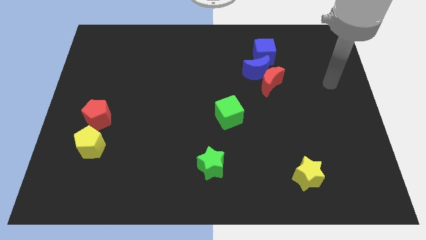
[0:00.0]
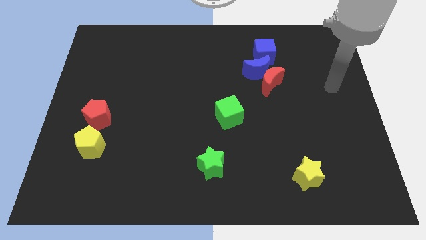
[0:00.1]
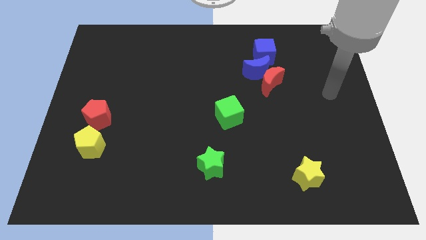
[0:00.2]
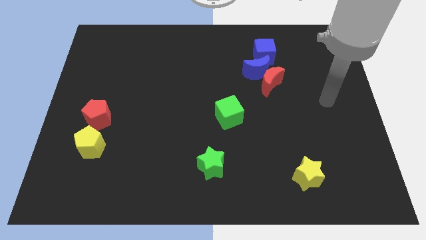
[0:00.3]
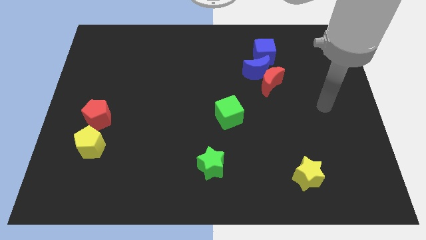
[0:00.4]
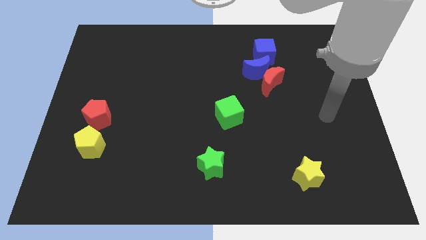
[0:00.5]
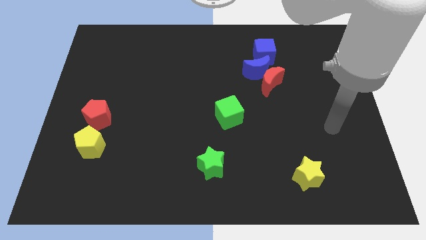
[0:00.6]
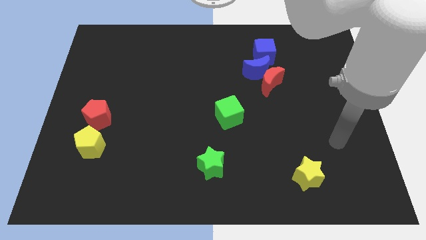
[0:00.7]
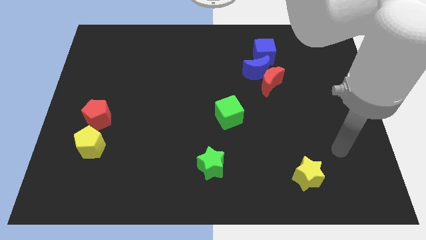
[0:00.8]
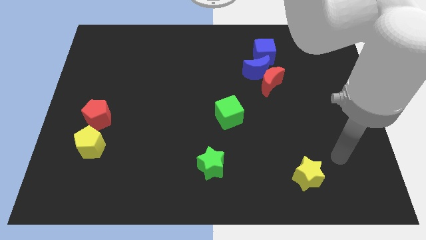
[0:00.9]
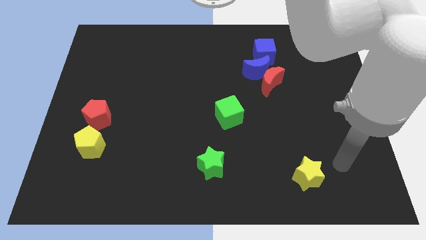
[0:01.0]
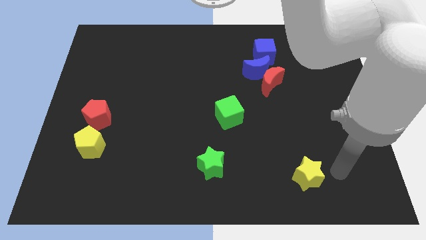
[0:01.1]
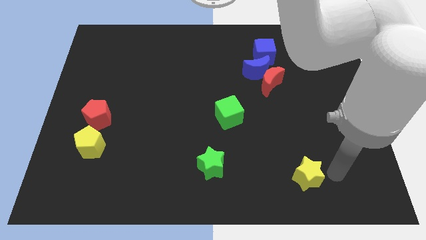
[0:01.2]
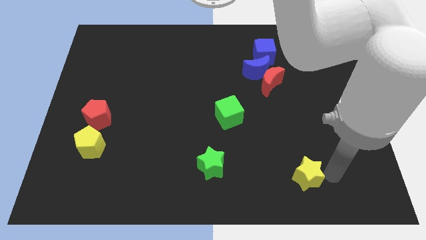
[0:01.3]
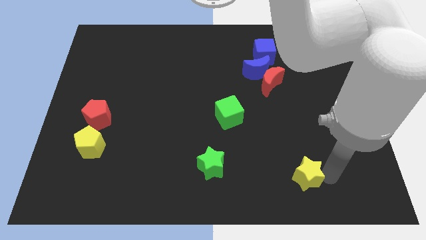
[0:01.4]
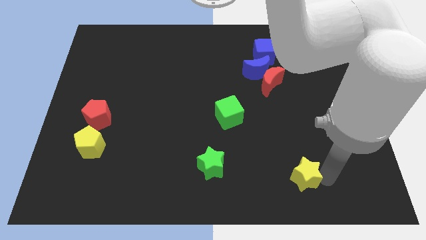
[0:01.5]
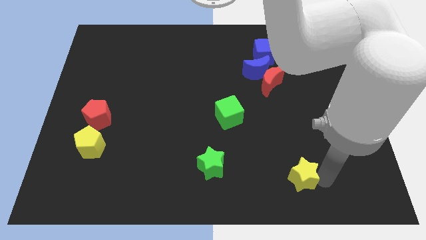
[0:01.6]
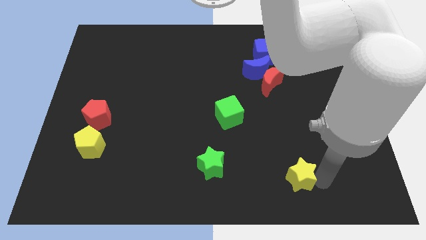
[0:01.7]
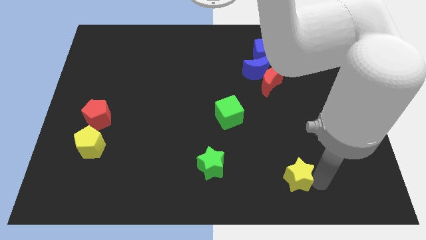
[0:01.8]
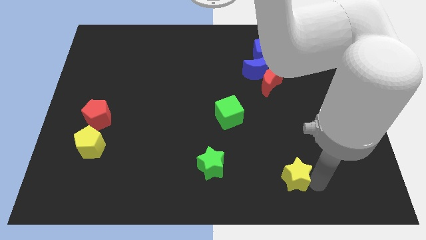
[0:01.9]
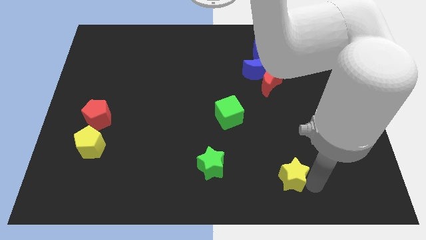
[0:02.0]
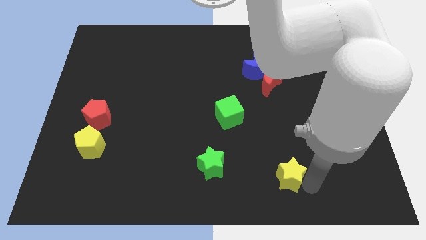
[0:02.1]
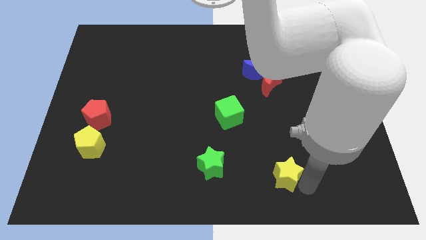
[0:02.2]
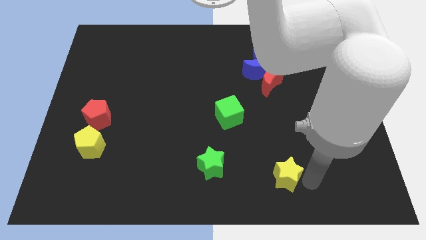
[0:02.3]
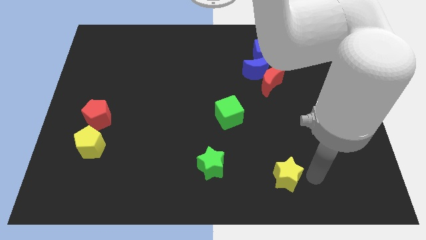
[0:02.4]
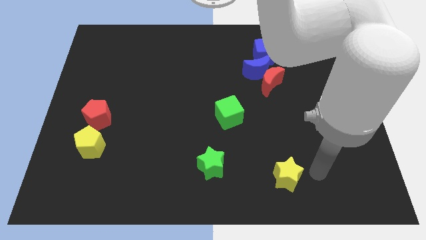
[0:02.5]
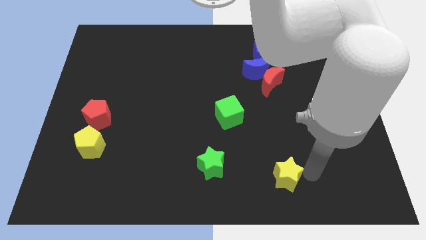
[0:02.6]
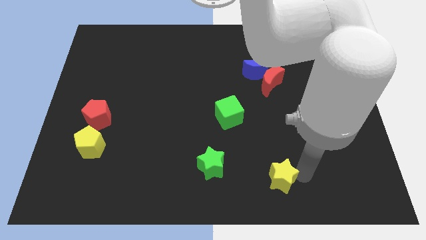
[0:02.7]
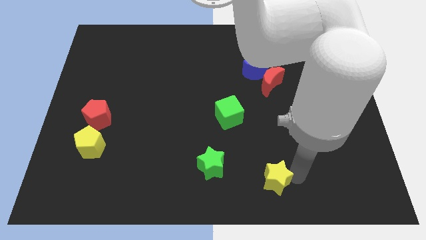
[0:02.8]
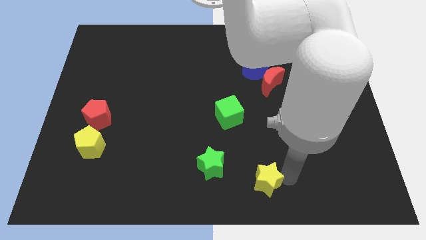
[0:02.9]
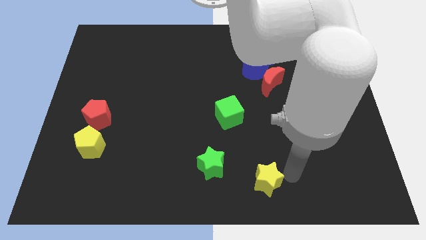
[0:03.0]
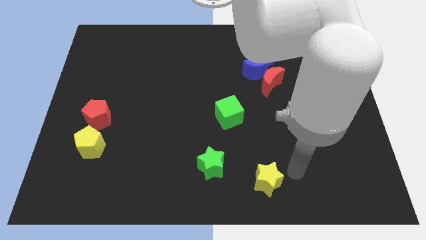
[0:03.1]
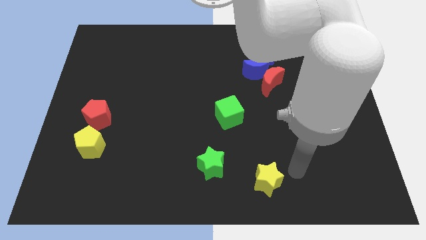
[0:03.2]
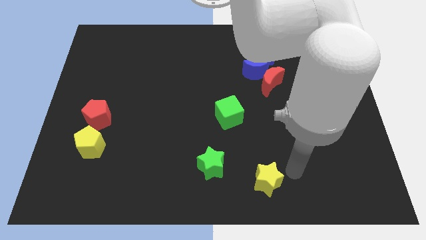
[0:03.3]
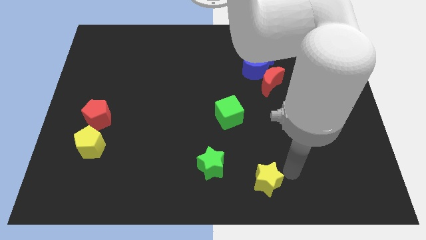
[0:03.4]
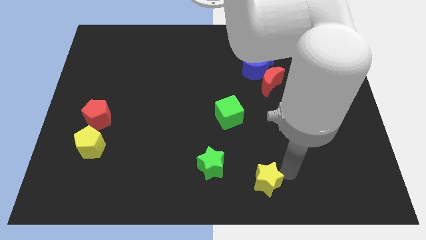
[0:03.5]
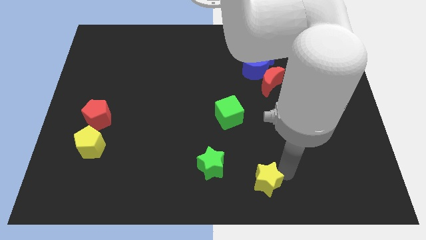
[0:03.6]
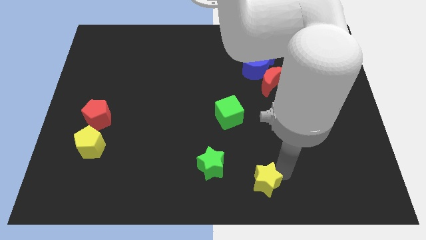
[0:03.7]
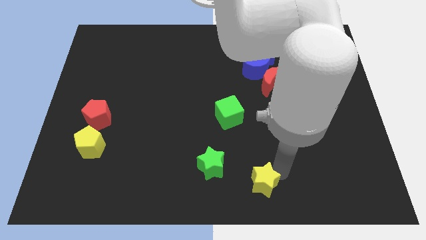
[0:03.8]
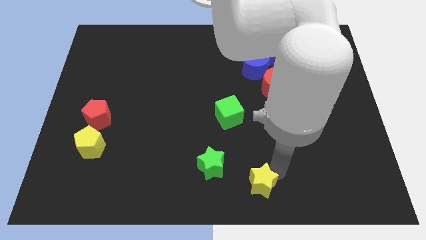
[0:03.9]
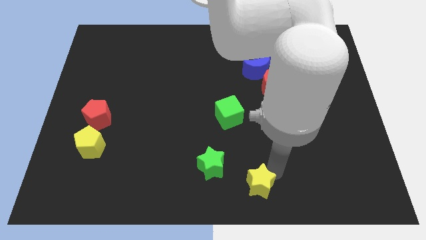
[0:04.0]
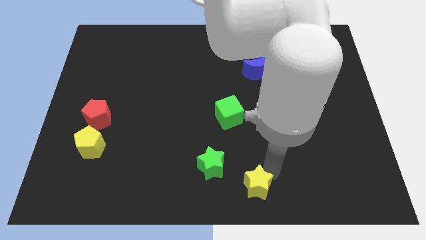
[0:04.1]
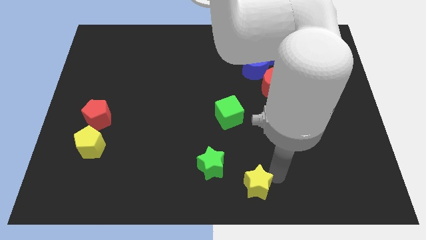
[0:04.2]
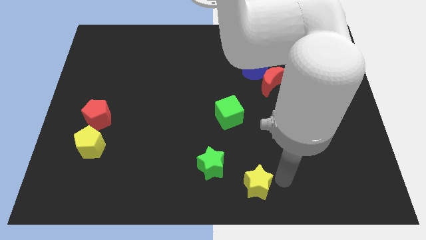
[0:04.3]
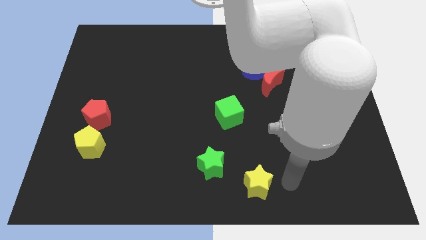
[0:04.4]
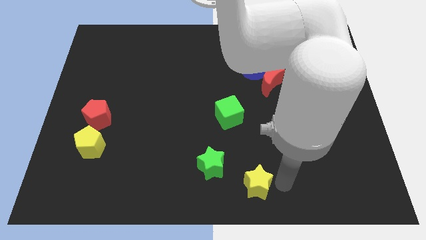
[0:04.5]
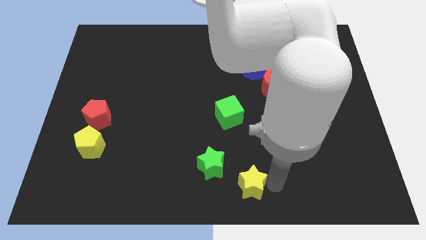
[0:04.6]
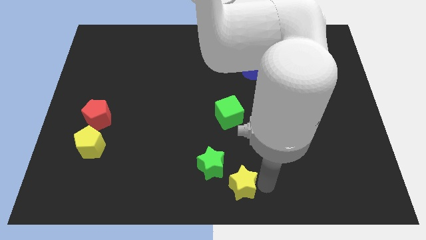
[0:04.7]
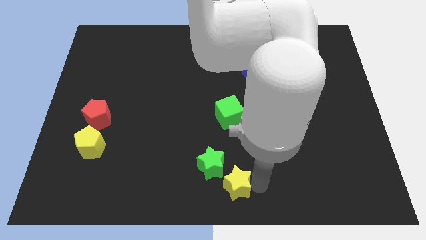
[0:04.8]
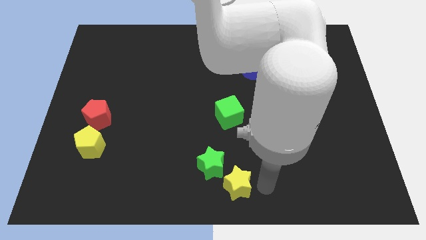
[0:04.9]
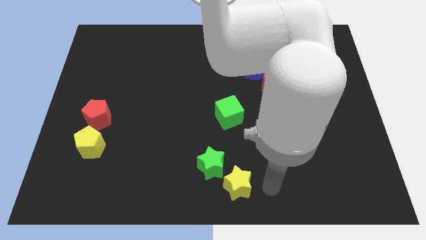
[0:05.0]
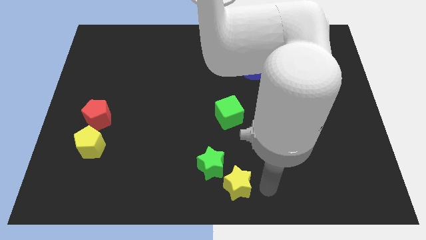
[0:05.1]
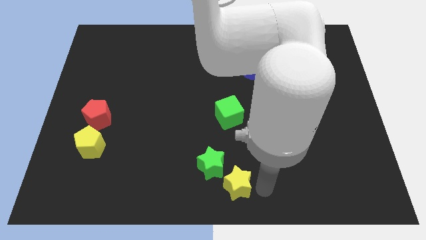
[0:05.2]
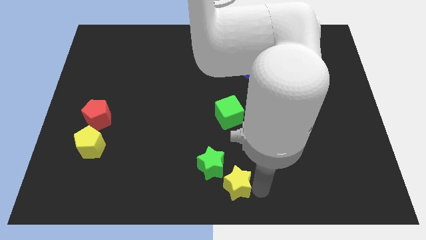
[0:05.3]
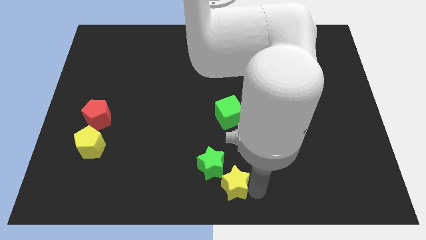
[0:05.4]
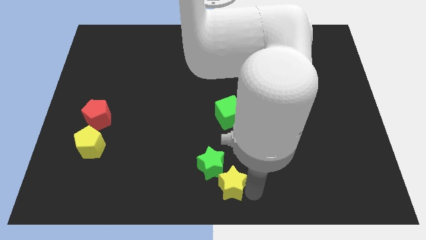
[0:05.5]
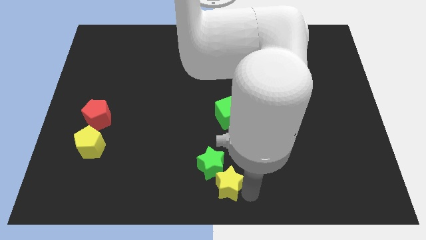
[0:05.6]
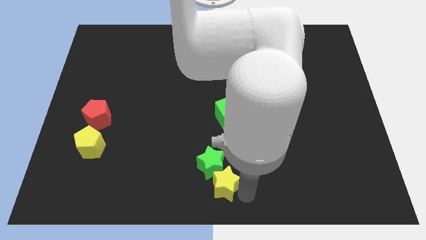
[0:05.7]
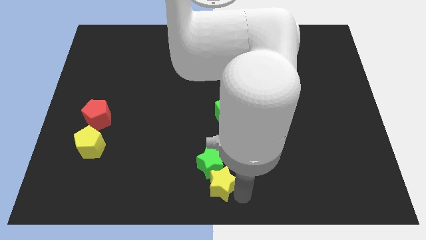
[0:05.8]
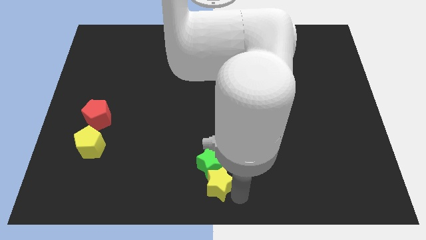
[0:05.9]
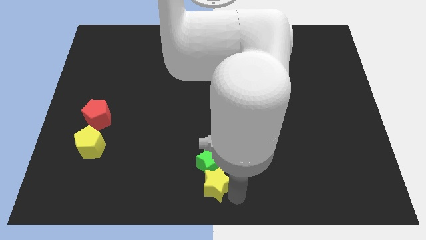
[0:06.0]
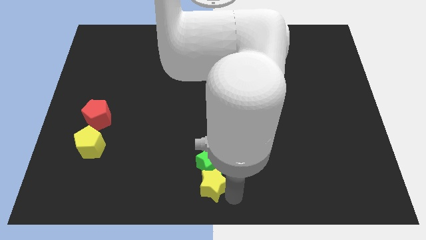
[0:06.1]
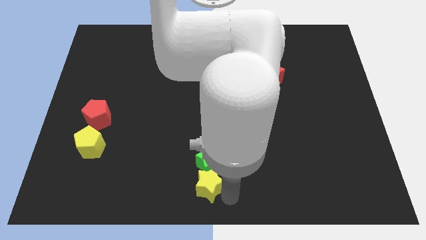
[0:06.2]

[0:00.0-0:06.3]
push the yellow star to the left

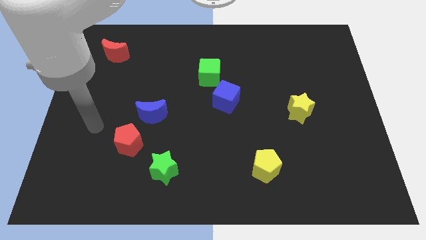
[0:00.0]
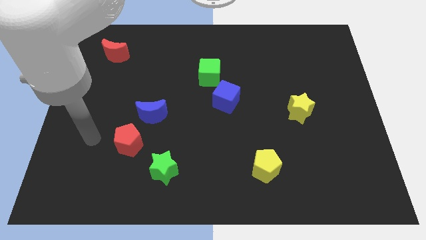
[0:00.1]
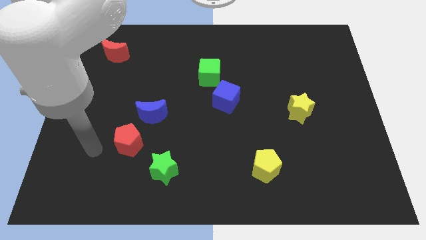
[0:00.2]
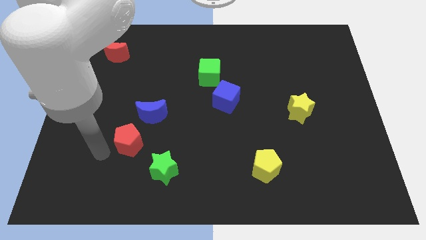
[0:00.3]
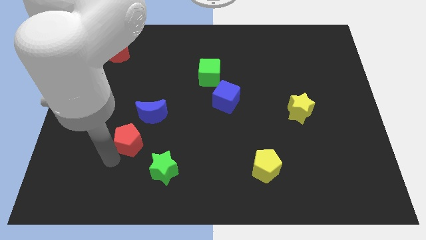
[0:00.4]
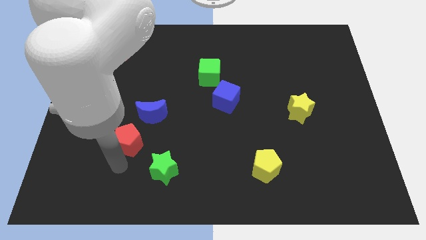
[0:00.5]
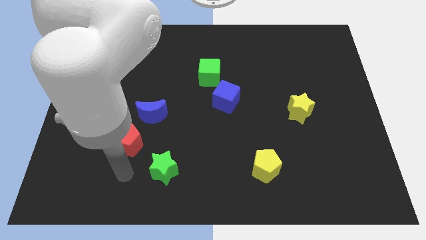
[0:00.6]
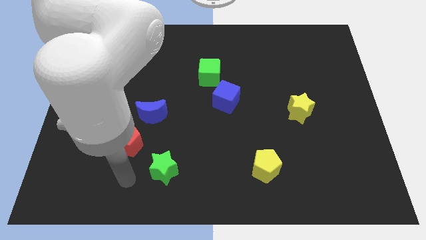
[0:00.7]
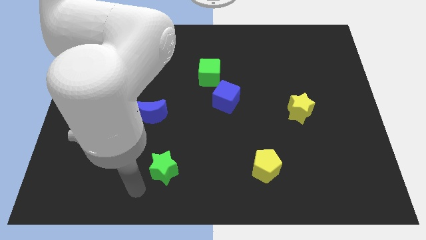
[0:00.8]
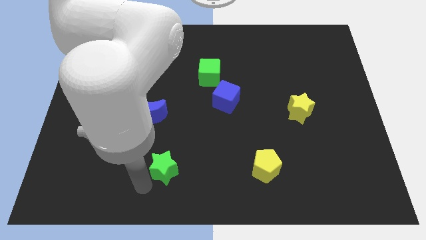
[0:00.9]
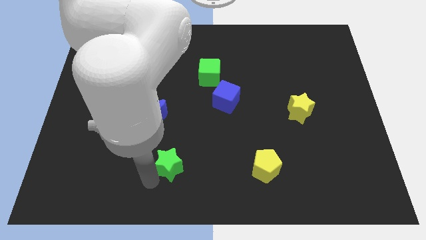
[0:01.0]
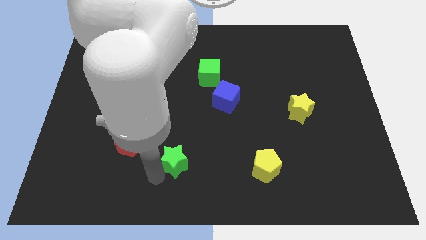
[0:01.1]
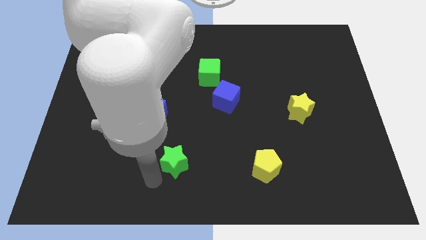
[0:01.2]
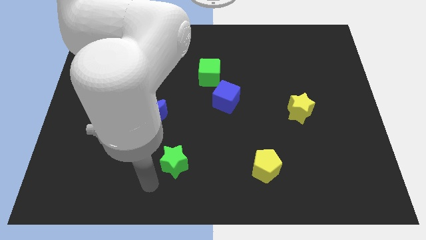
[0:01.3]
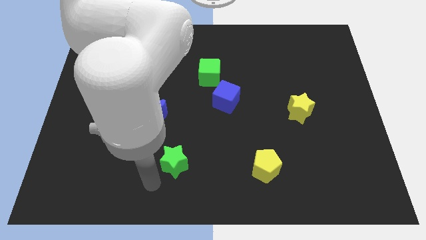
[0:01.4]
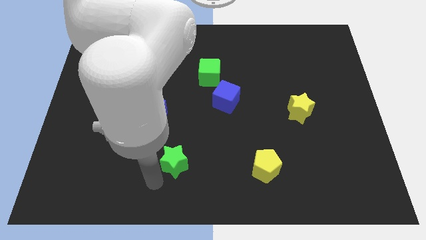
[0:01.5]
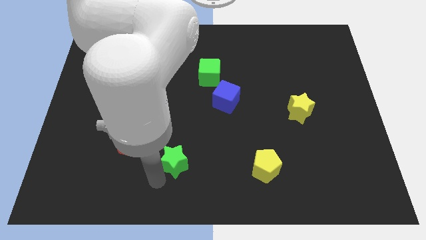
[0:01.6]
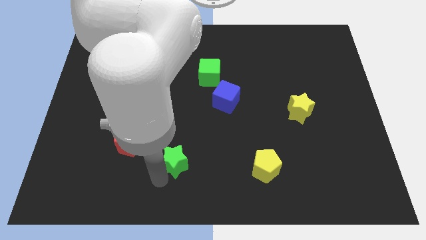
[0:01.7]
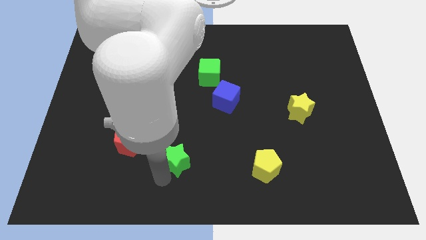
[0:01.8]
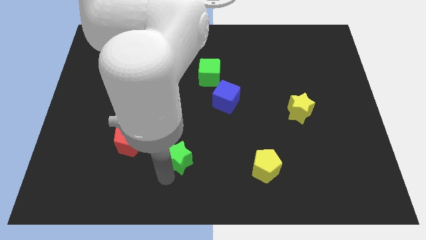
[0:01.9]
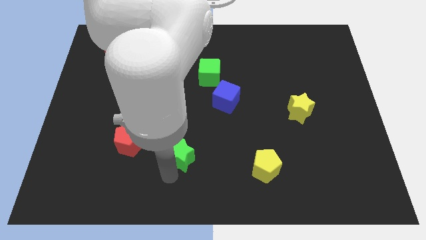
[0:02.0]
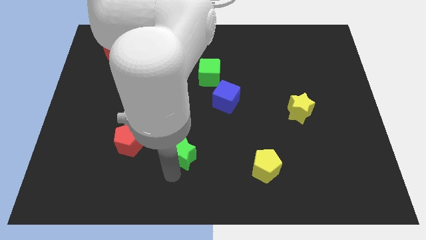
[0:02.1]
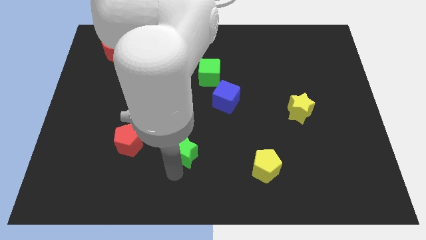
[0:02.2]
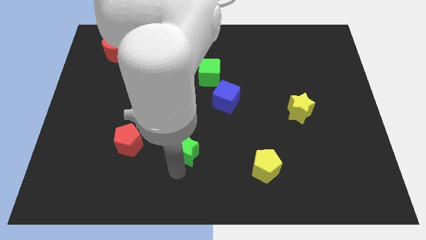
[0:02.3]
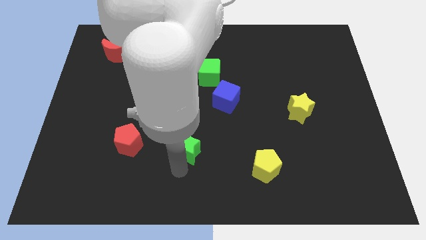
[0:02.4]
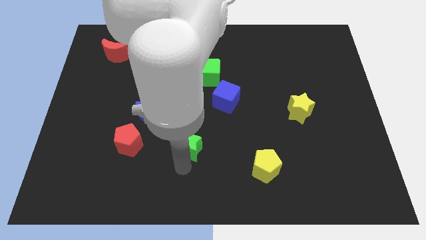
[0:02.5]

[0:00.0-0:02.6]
move the green star upwards and right diagonally a bit
